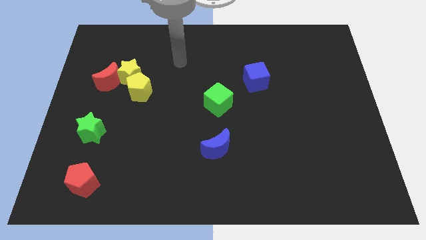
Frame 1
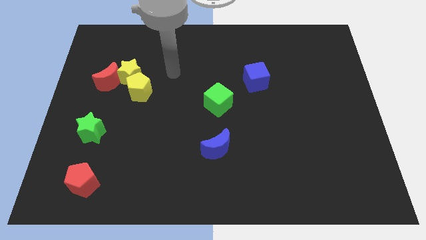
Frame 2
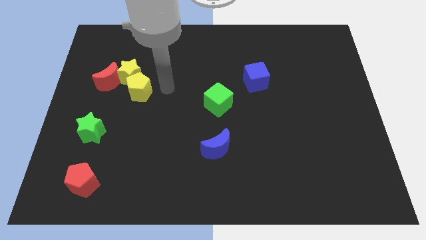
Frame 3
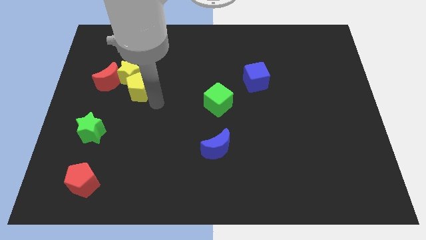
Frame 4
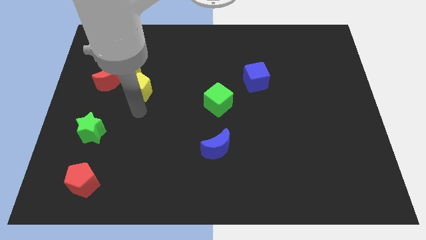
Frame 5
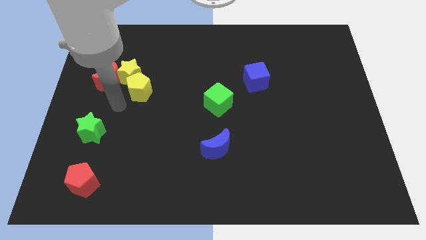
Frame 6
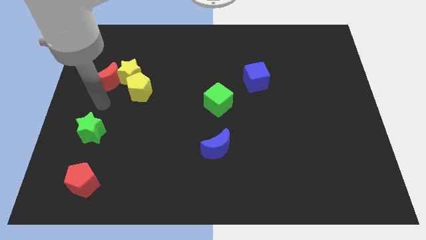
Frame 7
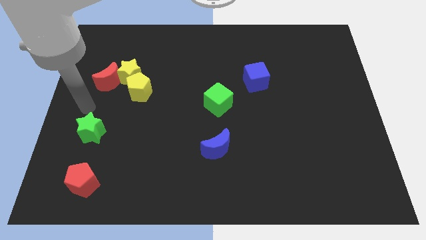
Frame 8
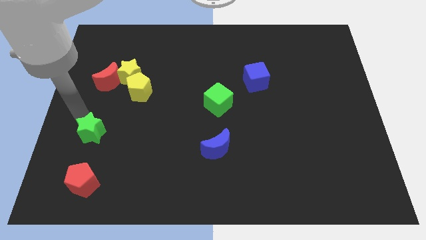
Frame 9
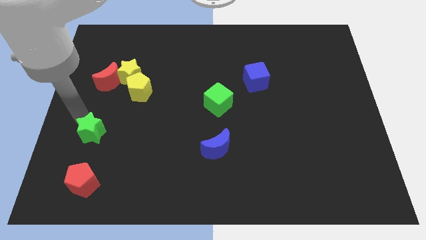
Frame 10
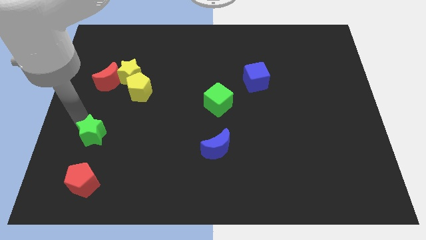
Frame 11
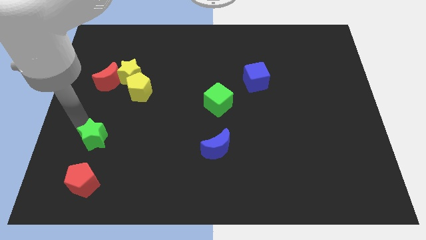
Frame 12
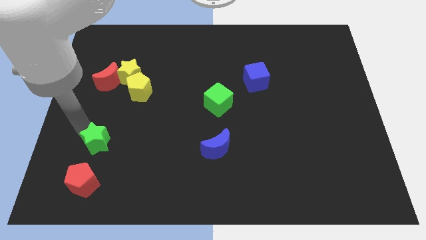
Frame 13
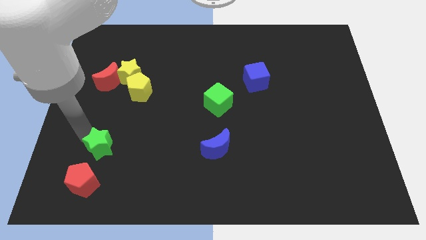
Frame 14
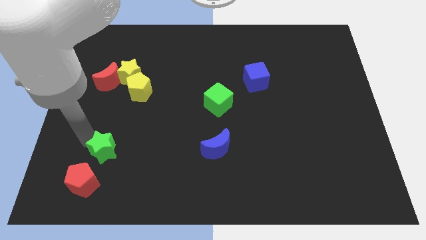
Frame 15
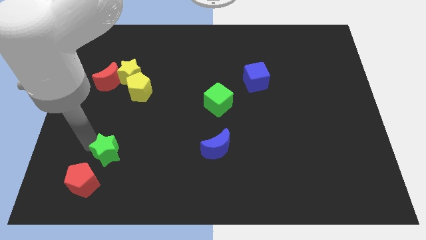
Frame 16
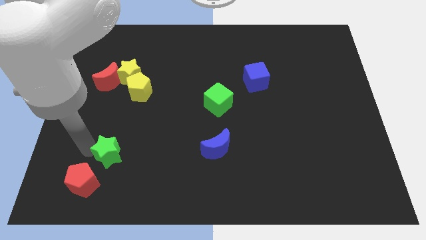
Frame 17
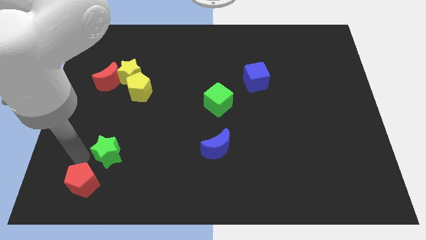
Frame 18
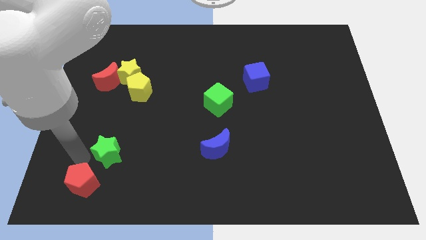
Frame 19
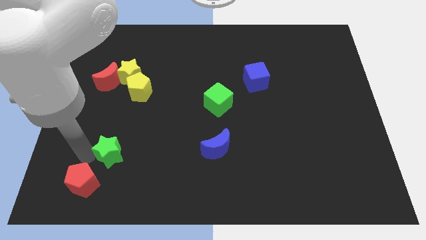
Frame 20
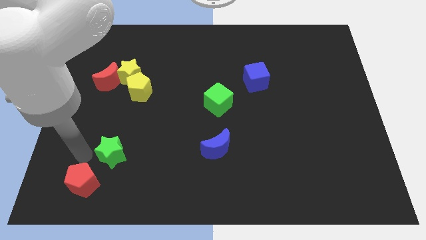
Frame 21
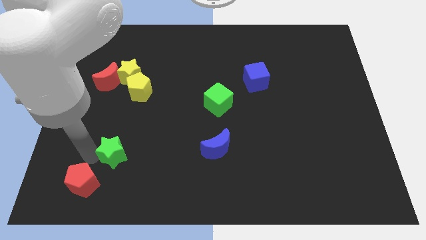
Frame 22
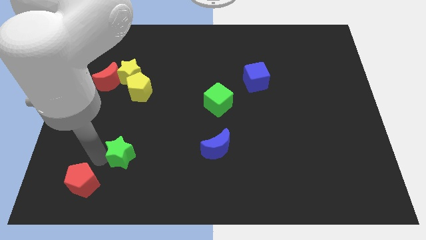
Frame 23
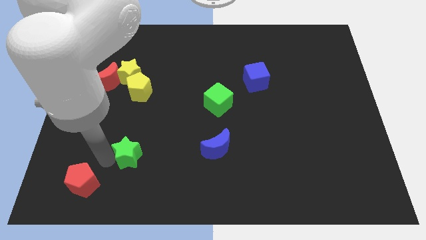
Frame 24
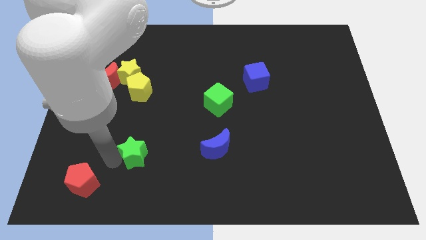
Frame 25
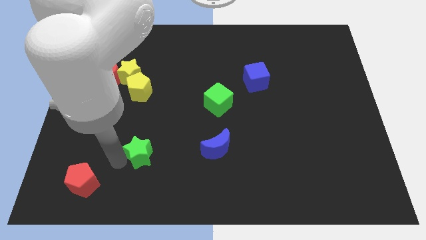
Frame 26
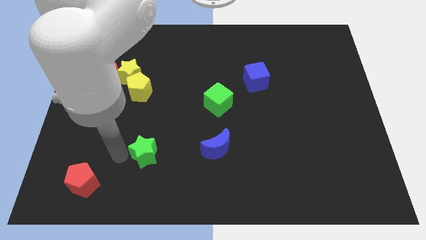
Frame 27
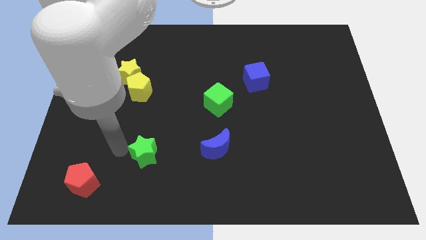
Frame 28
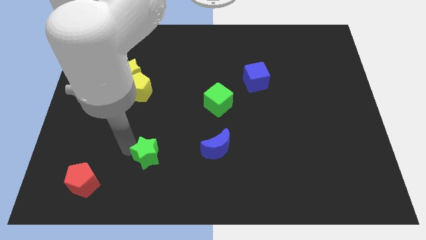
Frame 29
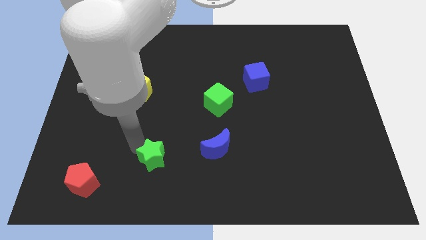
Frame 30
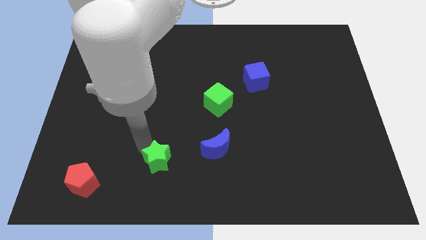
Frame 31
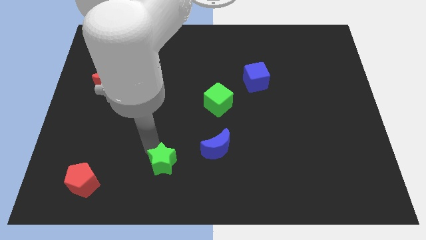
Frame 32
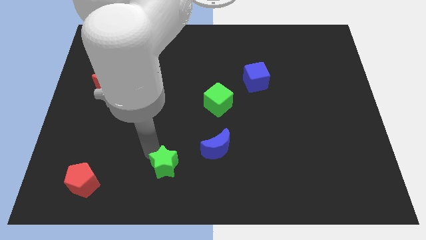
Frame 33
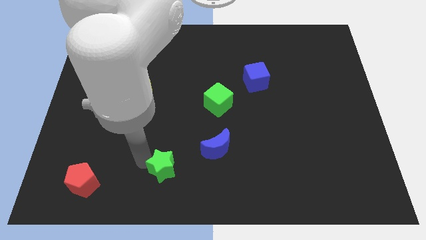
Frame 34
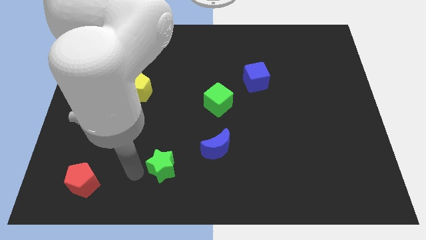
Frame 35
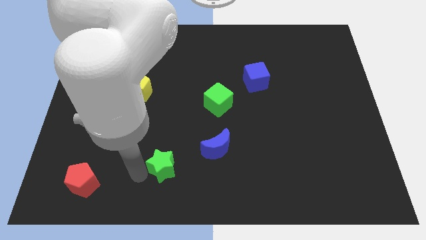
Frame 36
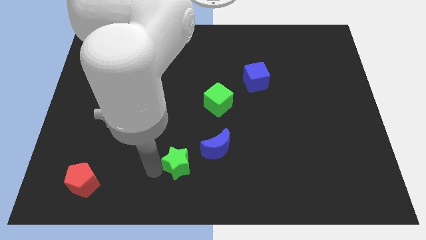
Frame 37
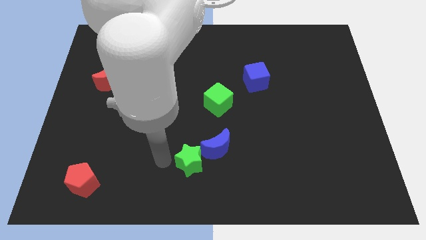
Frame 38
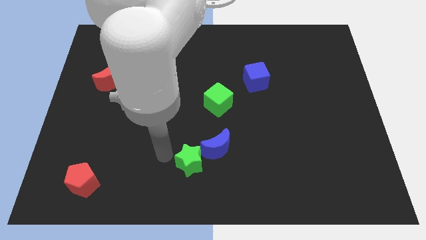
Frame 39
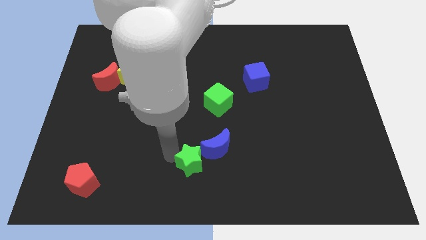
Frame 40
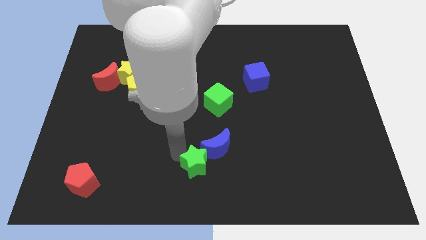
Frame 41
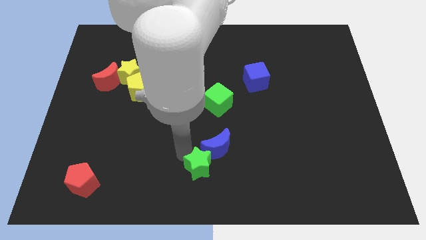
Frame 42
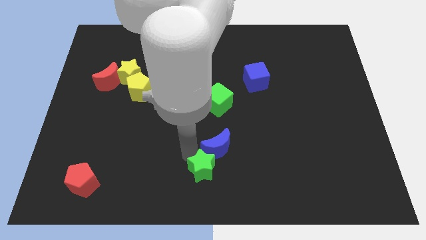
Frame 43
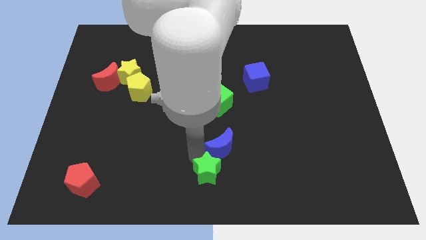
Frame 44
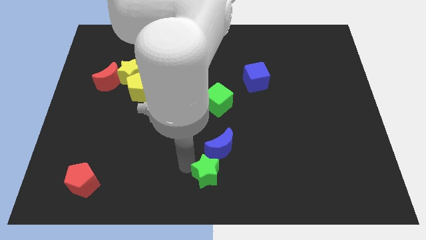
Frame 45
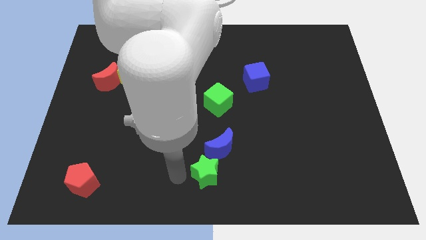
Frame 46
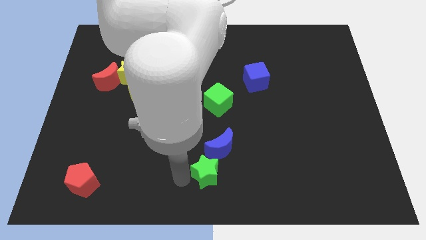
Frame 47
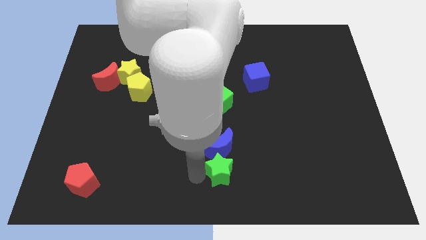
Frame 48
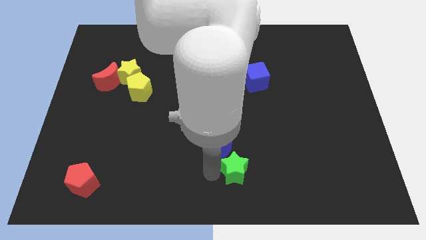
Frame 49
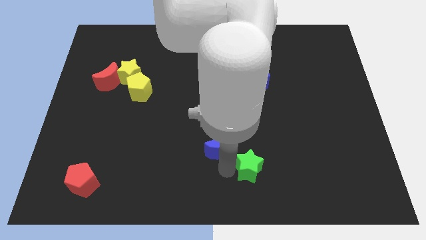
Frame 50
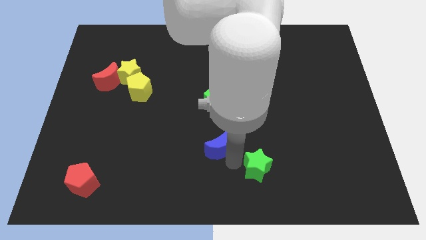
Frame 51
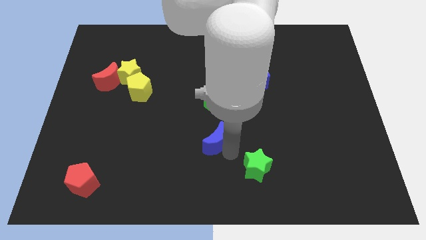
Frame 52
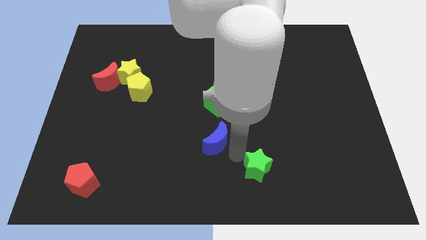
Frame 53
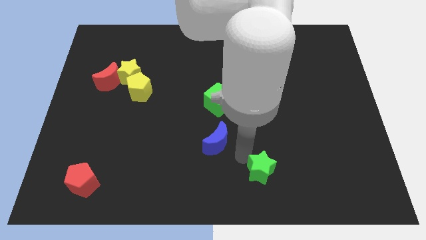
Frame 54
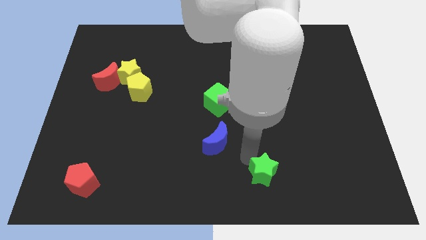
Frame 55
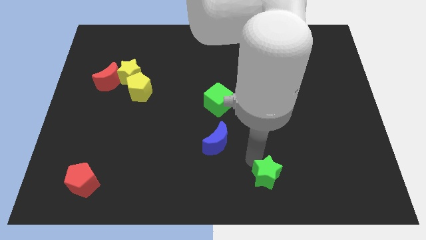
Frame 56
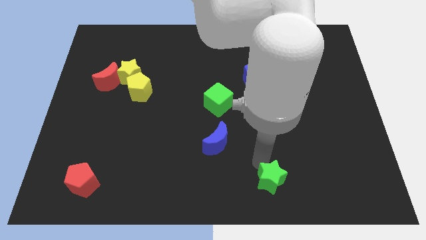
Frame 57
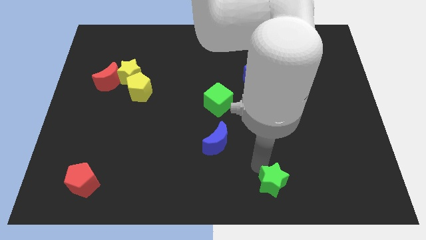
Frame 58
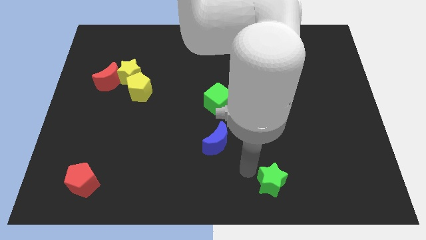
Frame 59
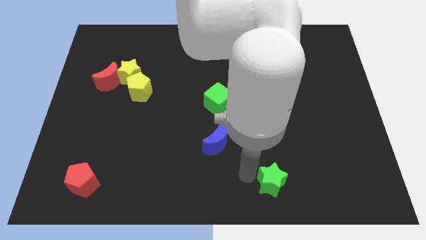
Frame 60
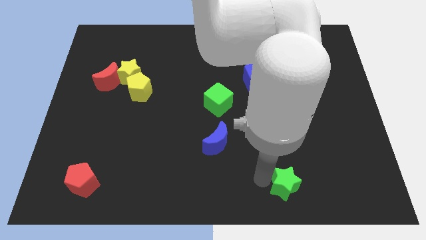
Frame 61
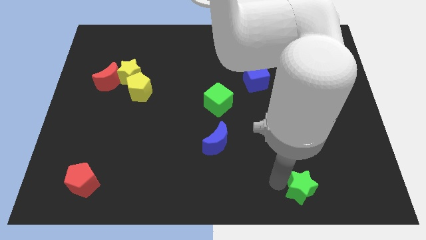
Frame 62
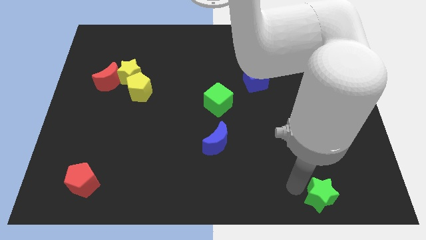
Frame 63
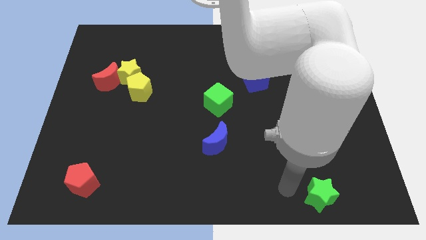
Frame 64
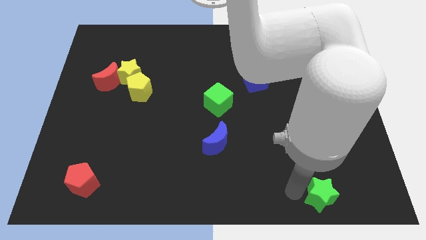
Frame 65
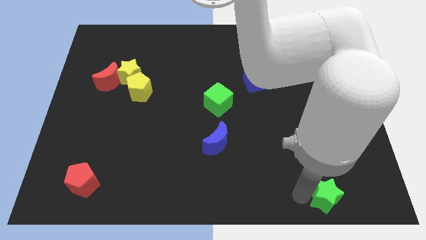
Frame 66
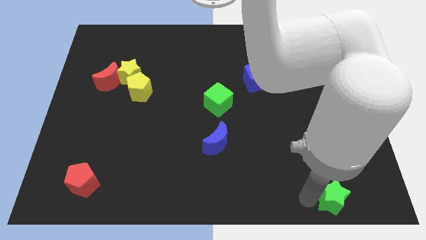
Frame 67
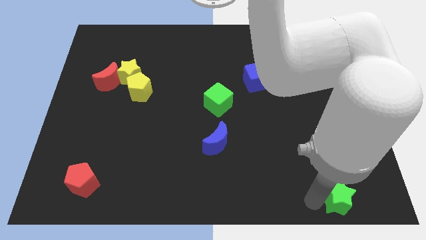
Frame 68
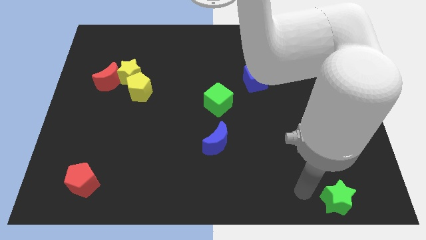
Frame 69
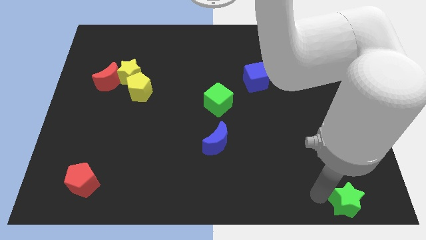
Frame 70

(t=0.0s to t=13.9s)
slide the green star to the bottom right corner
